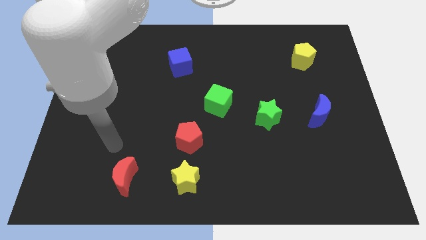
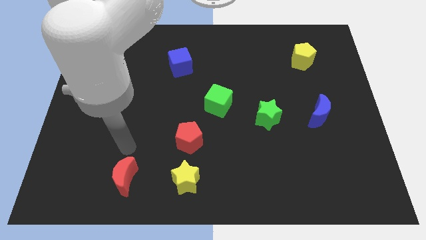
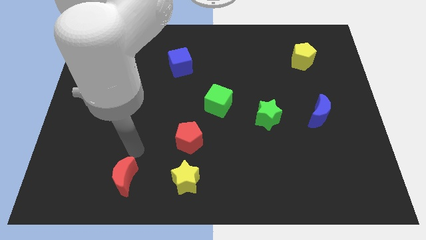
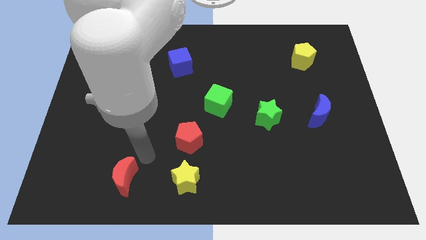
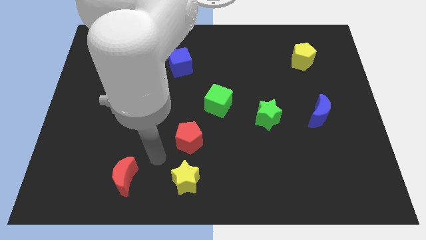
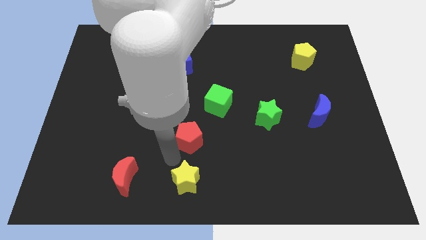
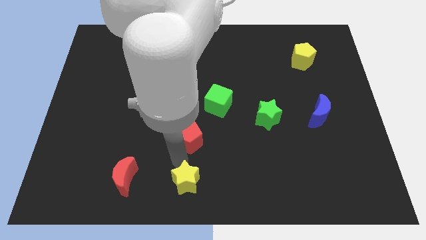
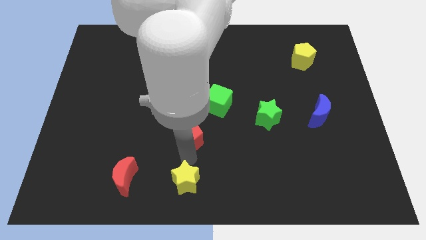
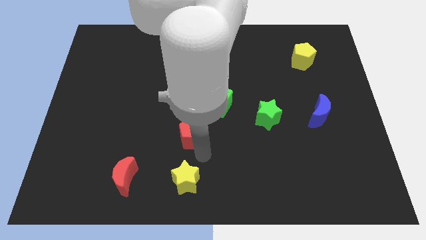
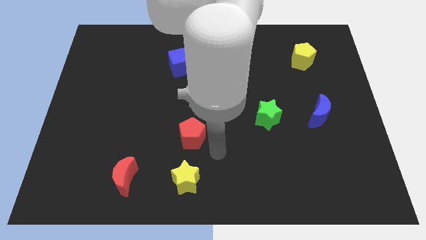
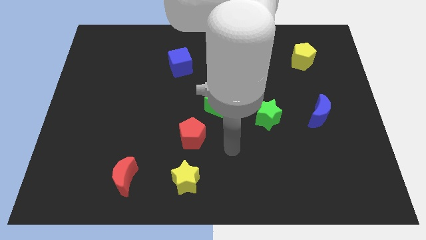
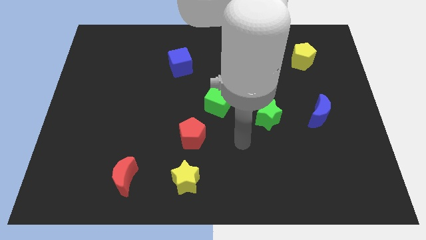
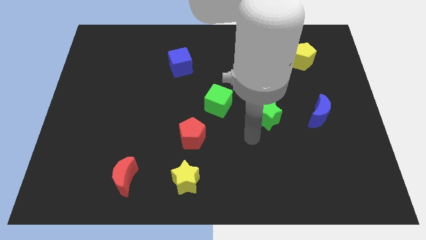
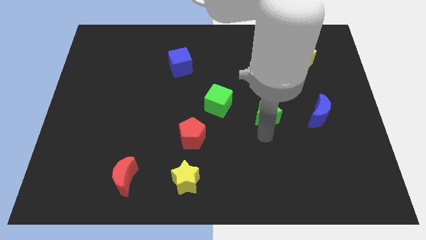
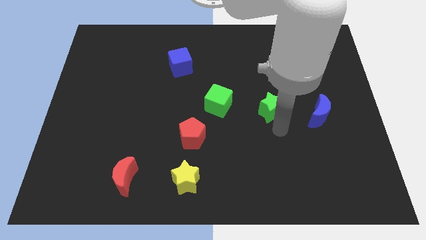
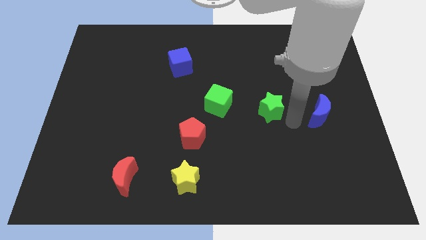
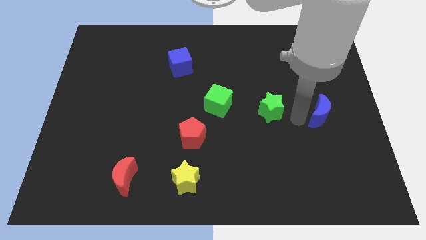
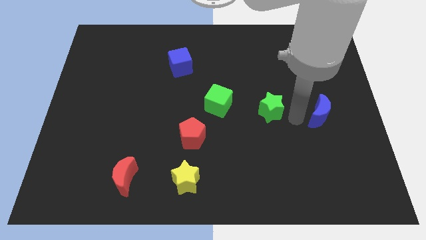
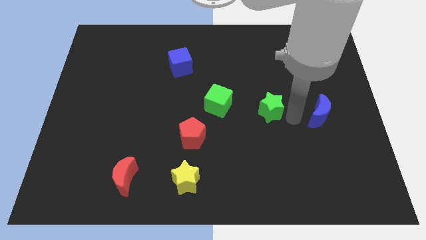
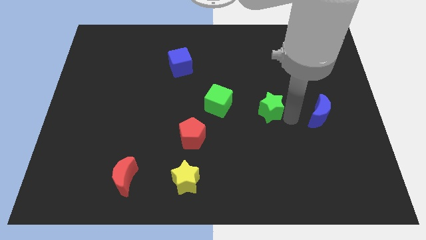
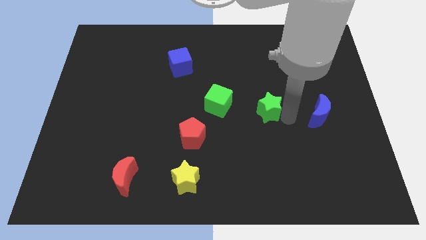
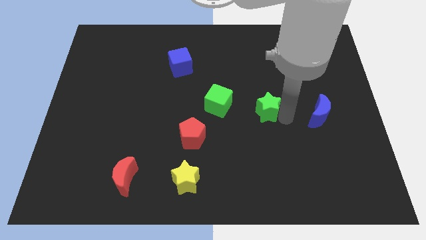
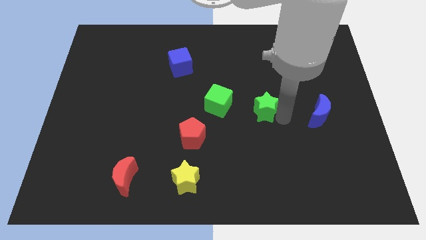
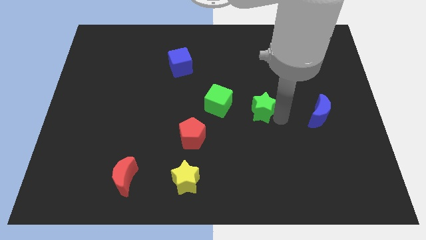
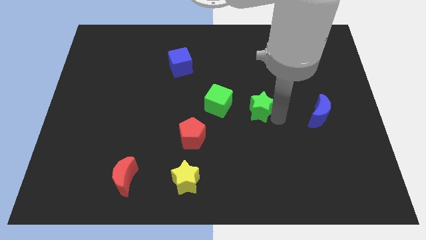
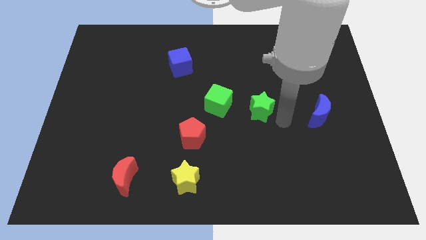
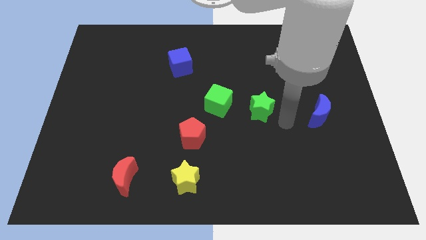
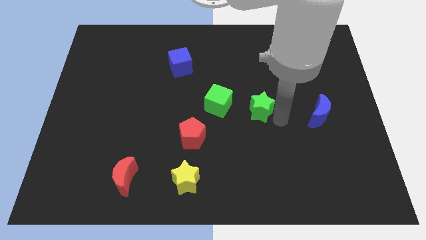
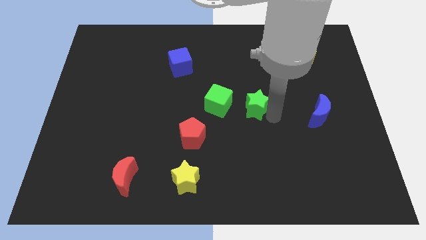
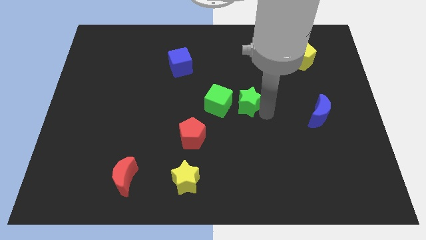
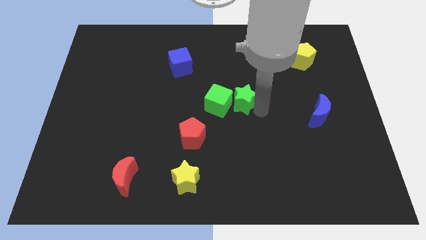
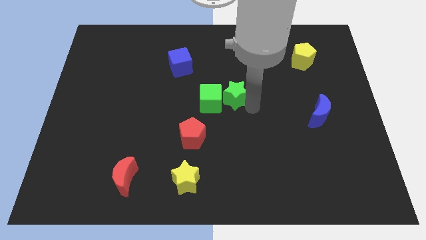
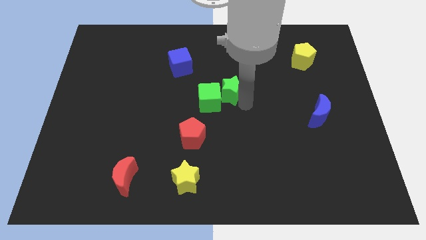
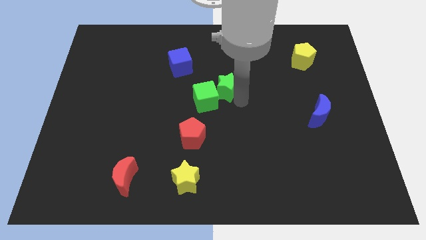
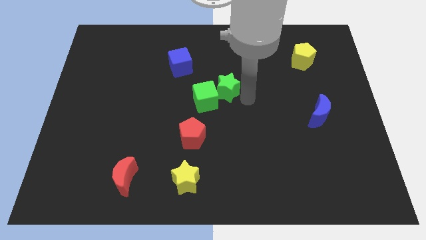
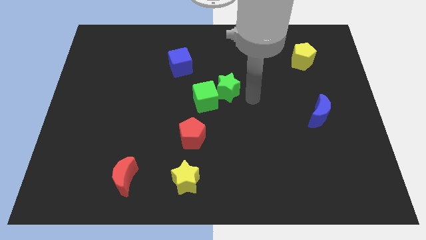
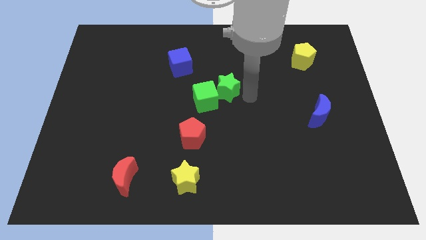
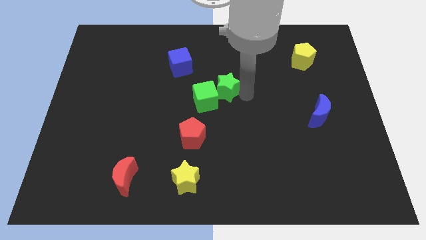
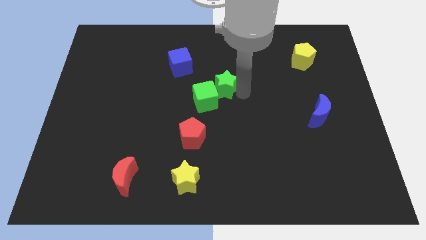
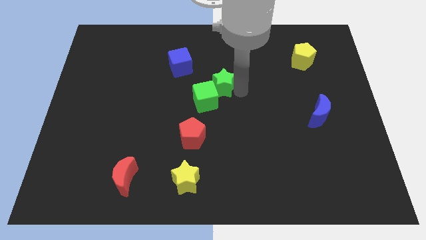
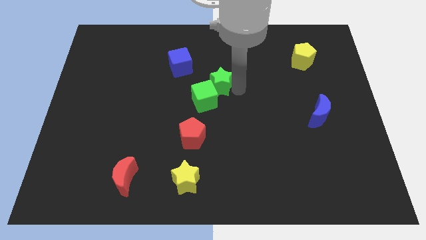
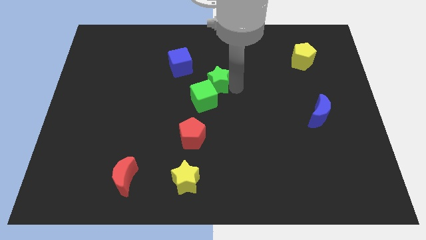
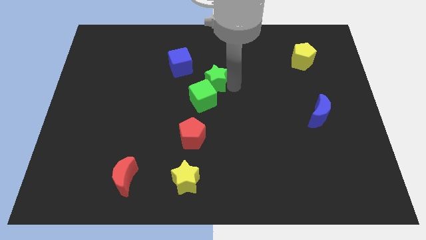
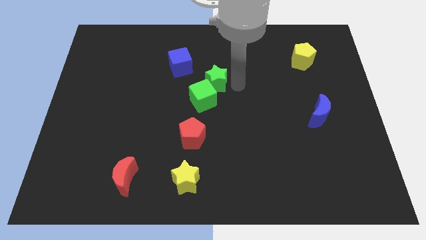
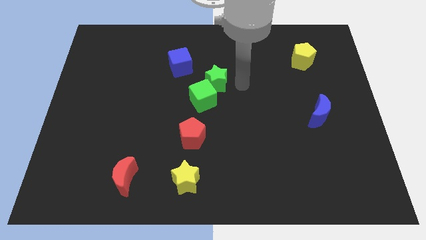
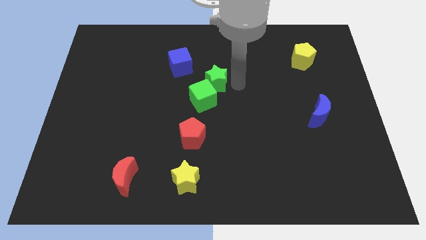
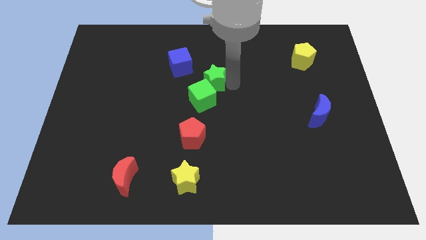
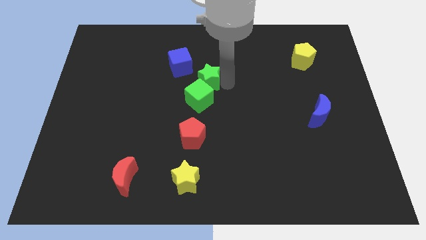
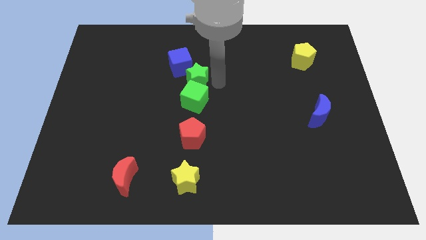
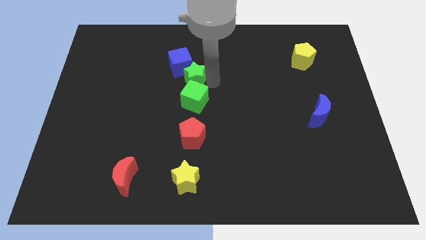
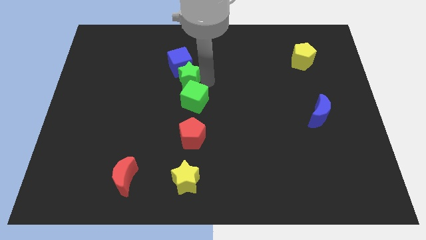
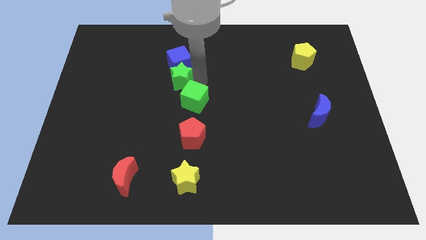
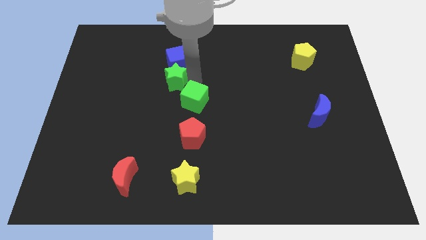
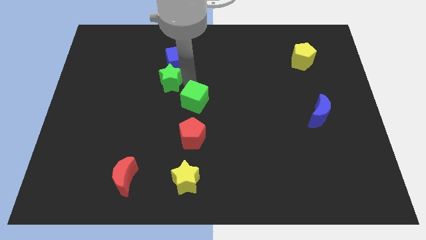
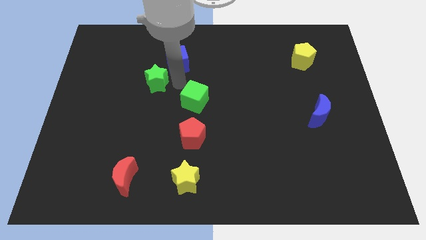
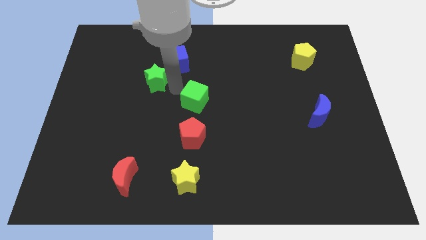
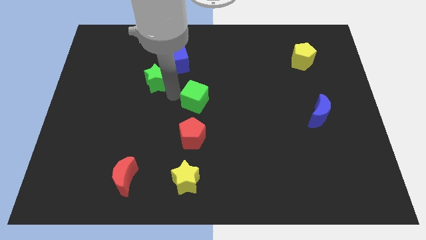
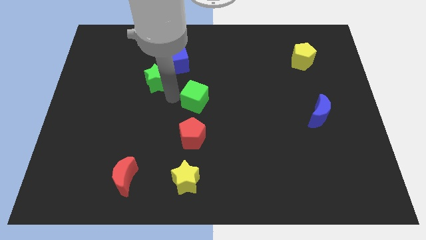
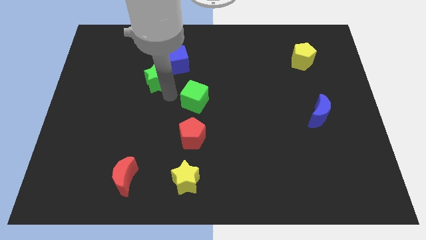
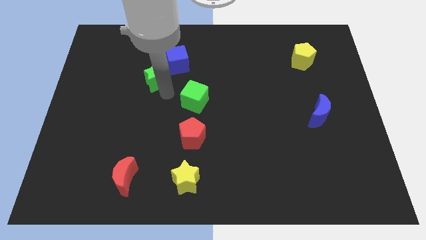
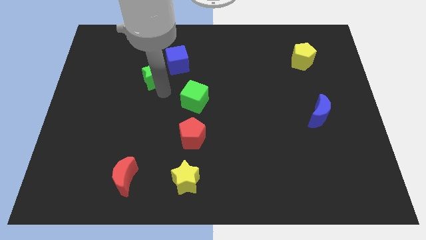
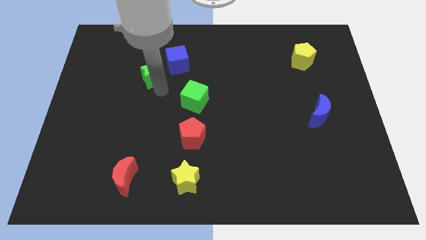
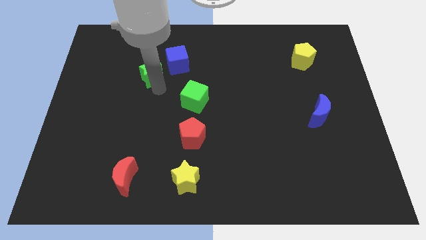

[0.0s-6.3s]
move the green star left of the blue cube
